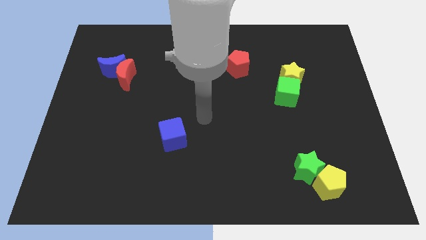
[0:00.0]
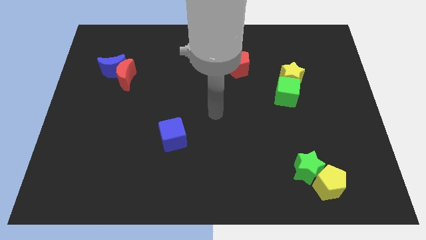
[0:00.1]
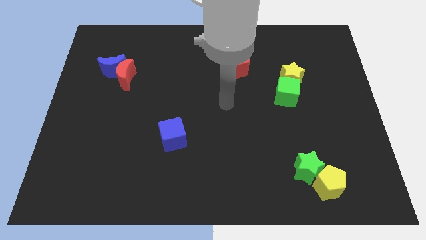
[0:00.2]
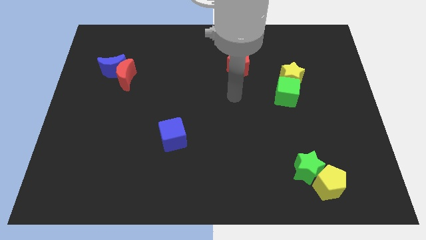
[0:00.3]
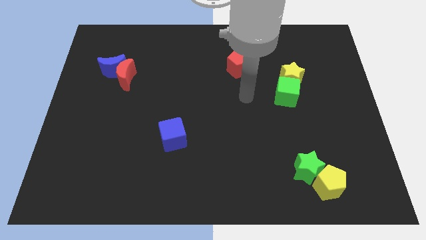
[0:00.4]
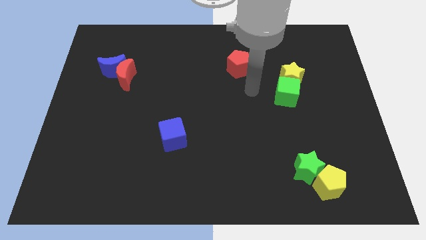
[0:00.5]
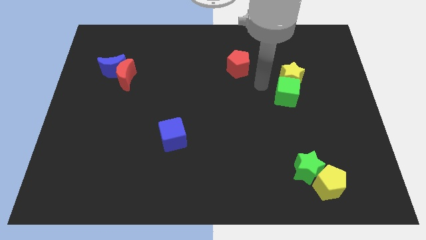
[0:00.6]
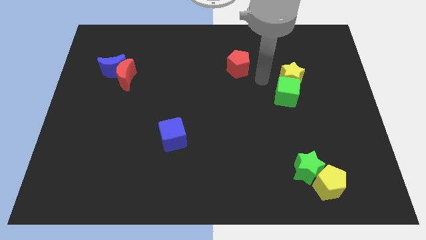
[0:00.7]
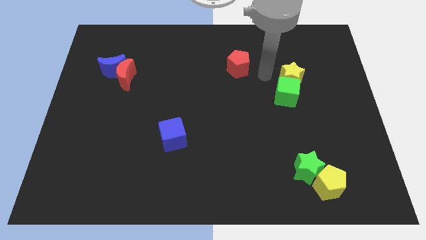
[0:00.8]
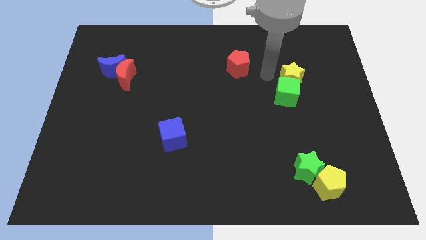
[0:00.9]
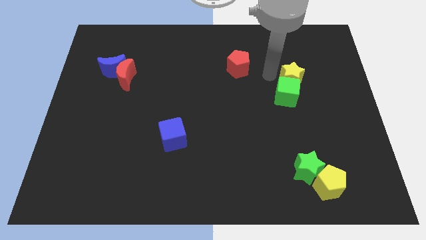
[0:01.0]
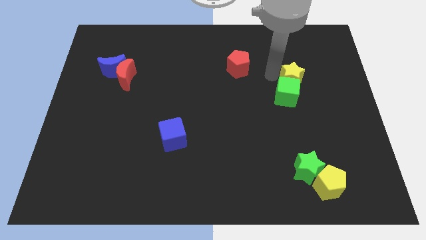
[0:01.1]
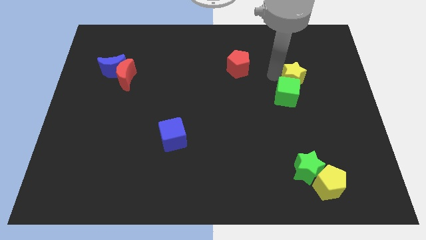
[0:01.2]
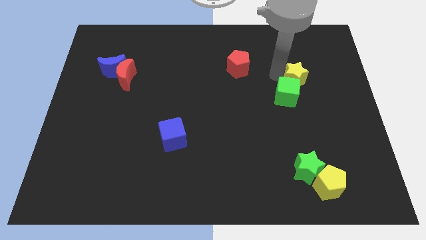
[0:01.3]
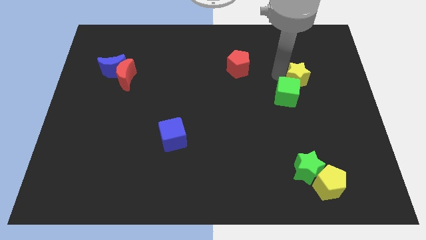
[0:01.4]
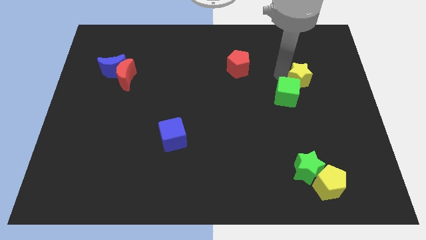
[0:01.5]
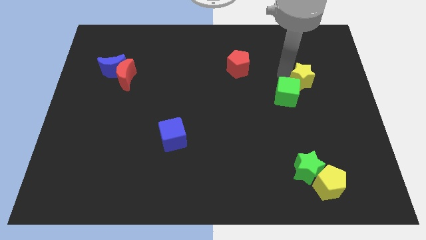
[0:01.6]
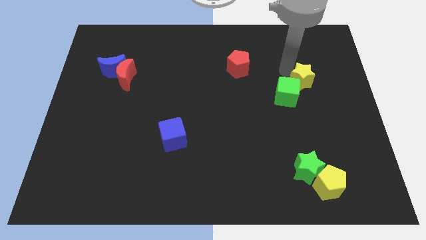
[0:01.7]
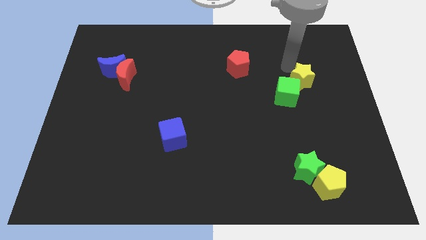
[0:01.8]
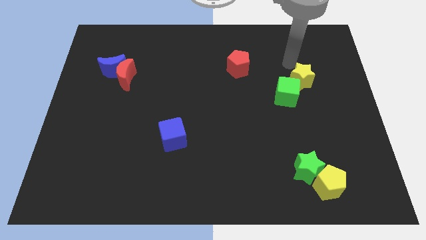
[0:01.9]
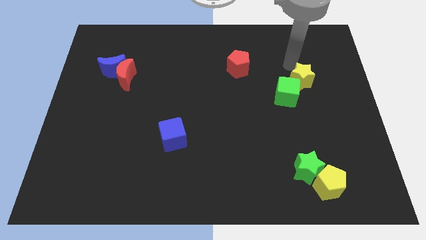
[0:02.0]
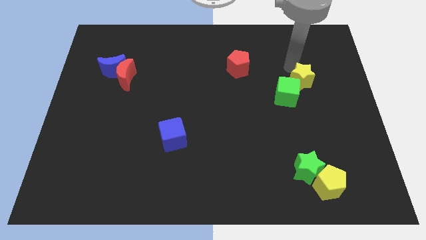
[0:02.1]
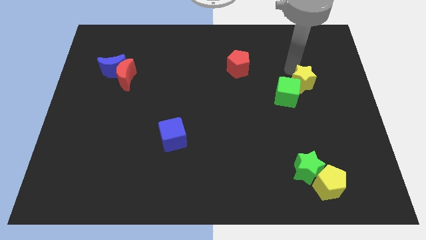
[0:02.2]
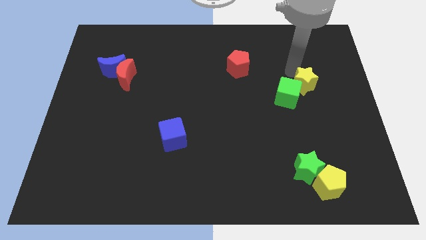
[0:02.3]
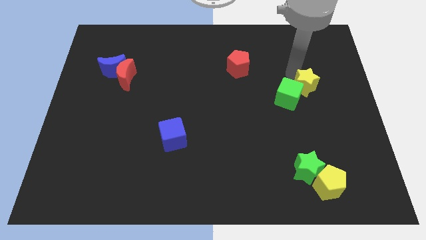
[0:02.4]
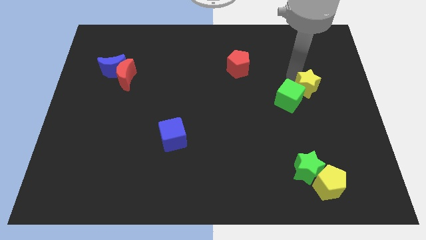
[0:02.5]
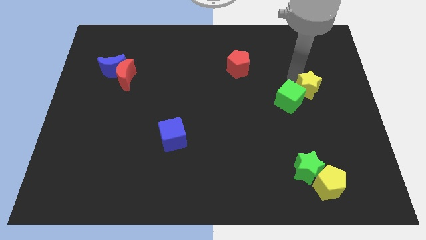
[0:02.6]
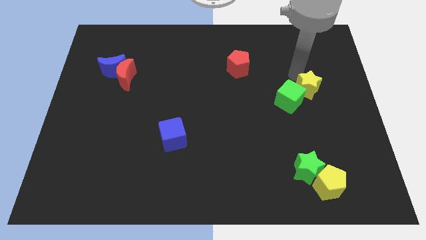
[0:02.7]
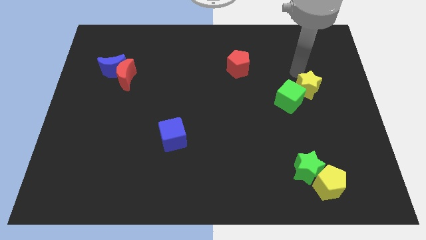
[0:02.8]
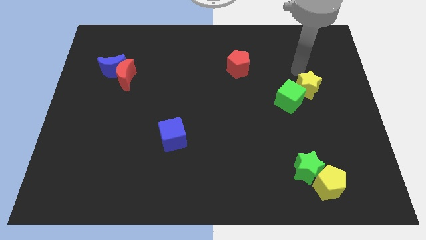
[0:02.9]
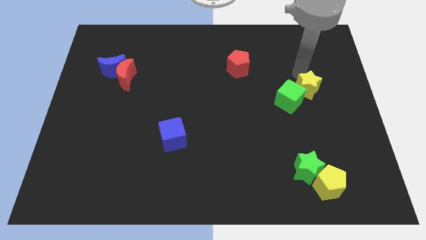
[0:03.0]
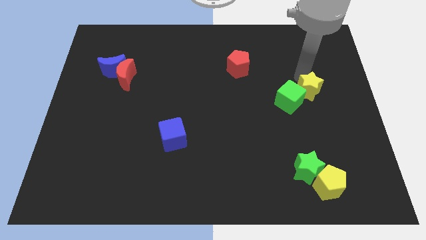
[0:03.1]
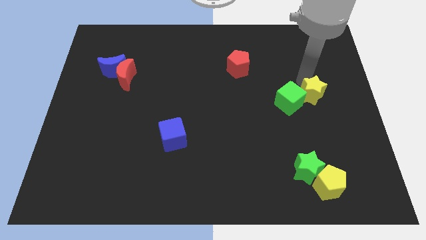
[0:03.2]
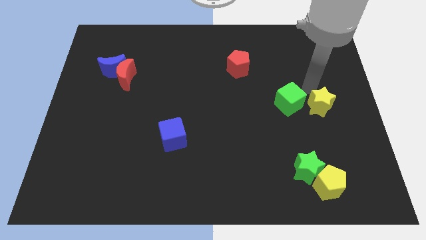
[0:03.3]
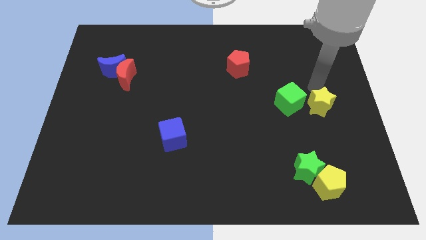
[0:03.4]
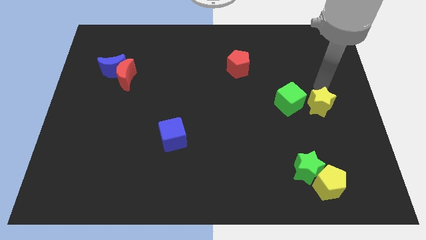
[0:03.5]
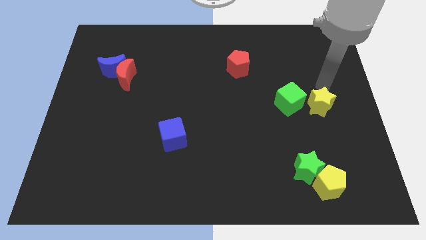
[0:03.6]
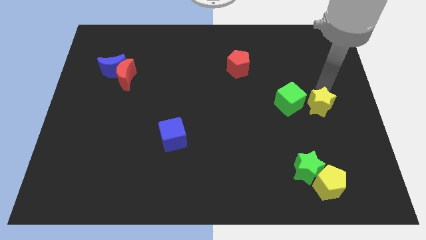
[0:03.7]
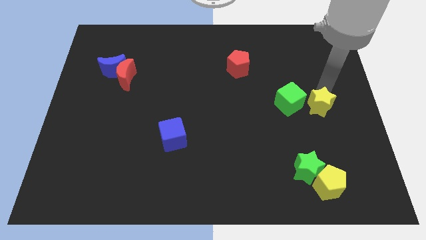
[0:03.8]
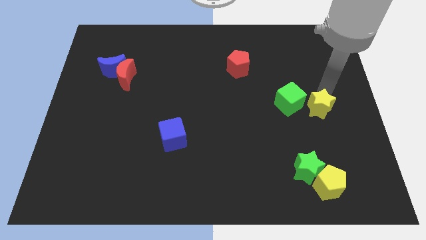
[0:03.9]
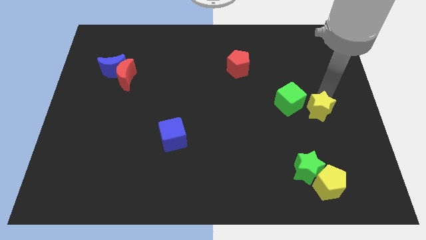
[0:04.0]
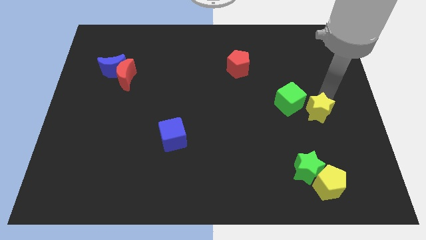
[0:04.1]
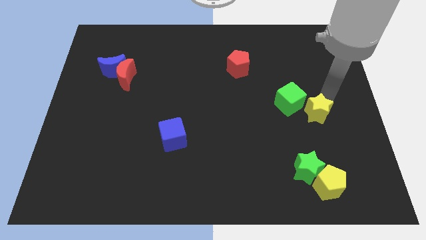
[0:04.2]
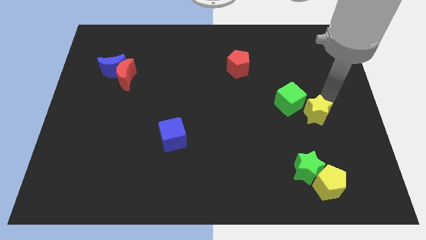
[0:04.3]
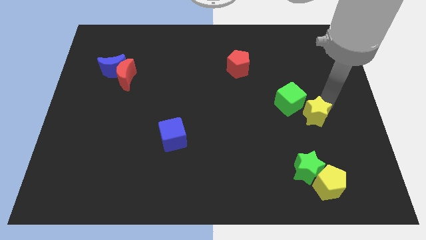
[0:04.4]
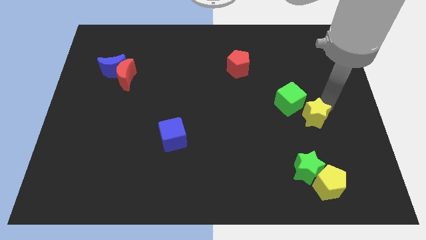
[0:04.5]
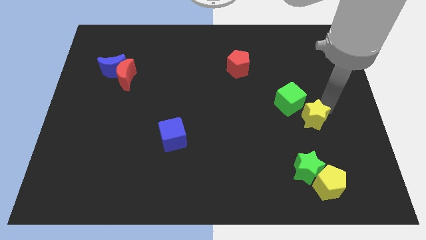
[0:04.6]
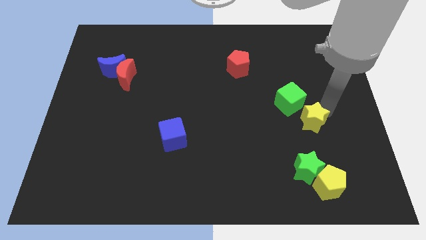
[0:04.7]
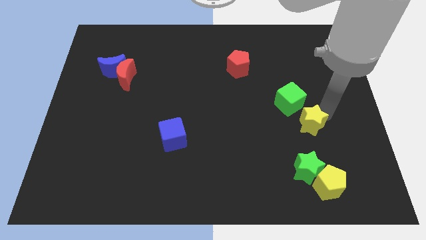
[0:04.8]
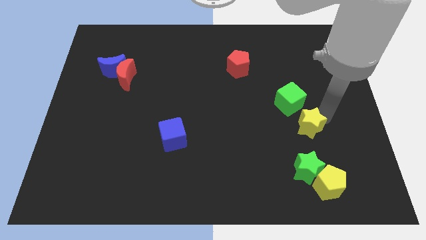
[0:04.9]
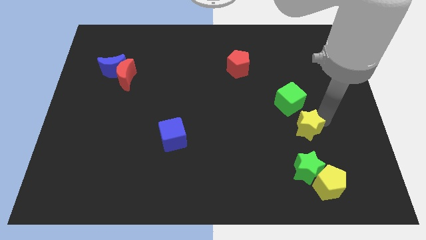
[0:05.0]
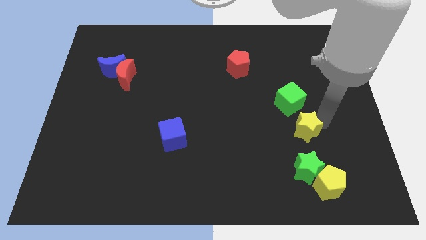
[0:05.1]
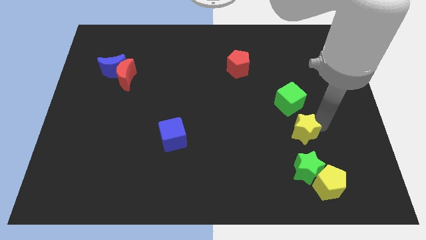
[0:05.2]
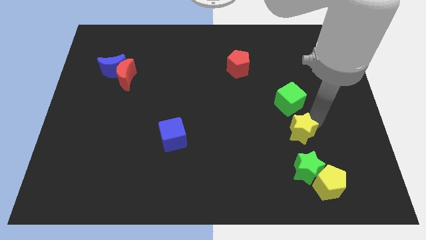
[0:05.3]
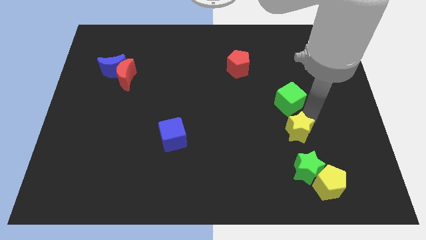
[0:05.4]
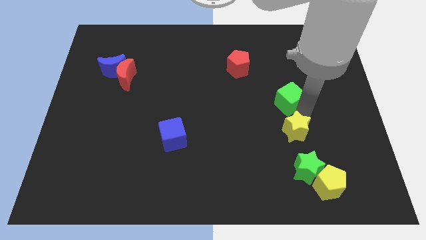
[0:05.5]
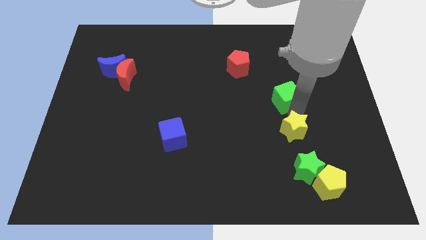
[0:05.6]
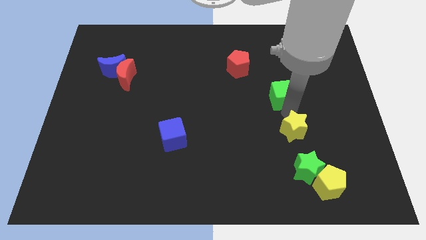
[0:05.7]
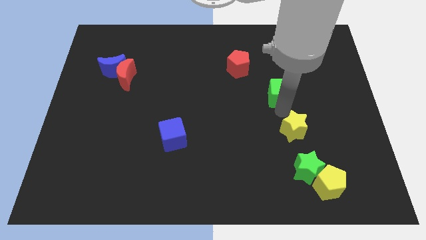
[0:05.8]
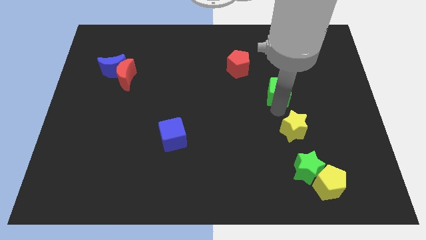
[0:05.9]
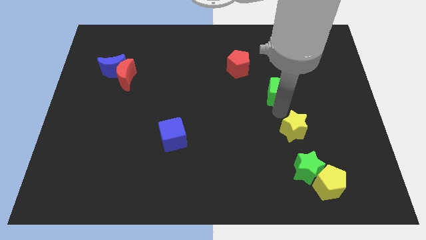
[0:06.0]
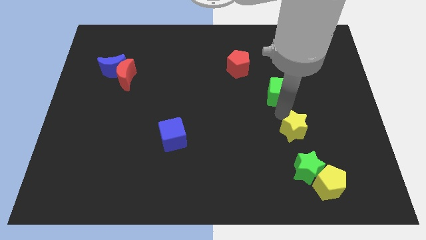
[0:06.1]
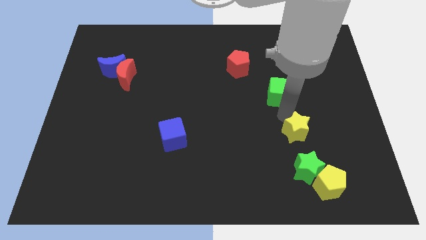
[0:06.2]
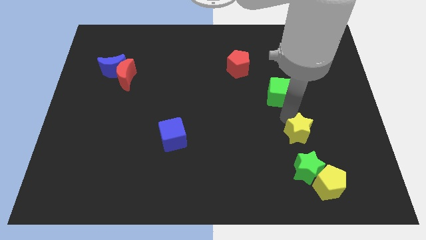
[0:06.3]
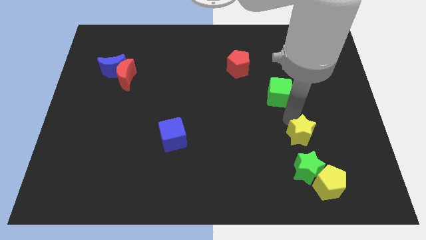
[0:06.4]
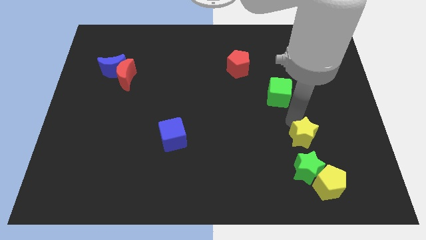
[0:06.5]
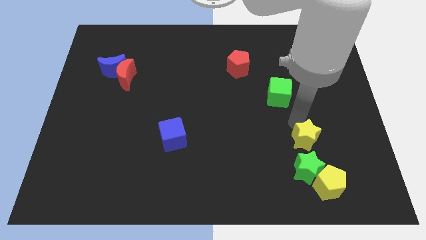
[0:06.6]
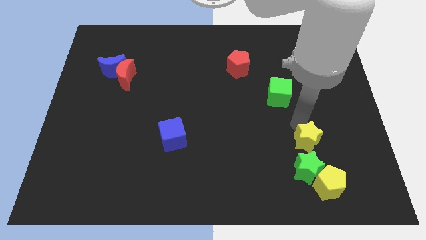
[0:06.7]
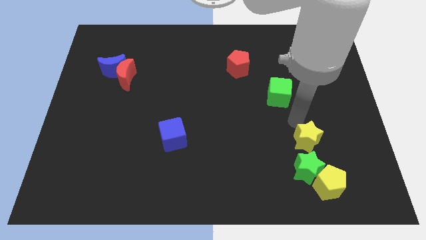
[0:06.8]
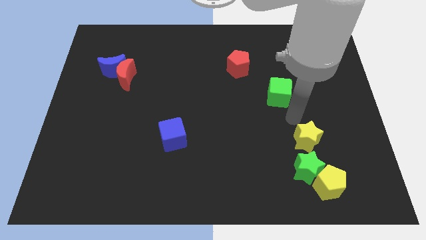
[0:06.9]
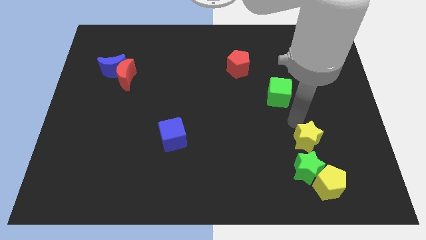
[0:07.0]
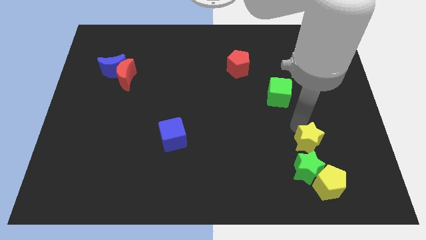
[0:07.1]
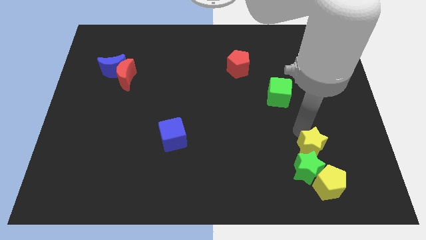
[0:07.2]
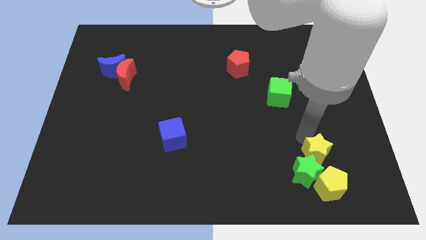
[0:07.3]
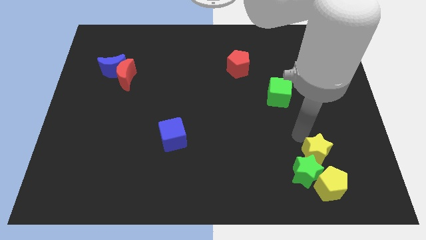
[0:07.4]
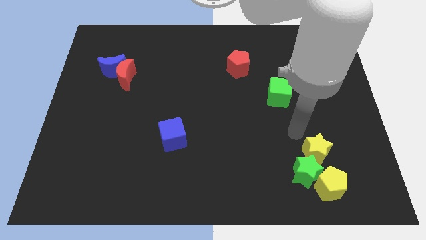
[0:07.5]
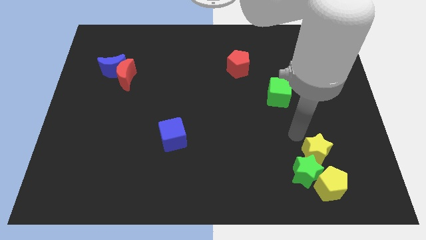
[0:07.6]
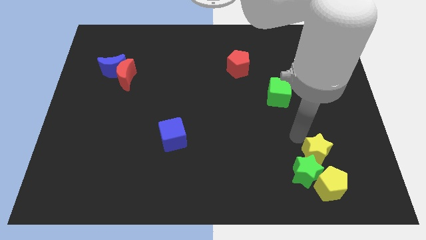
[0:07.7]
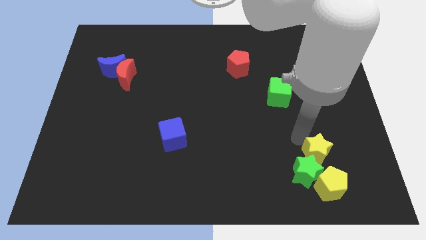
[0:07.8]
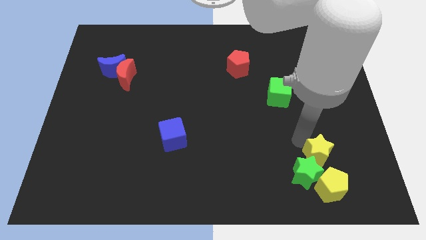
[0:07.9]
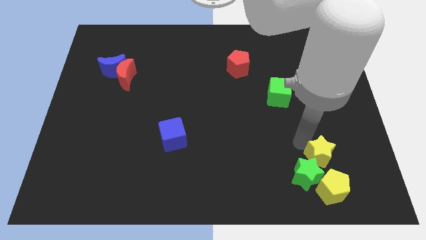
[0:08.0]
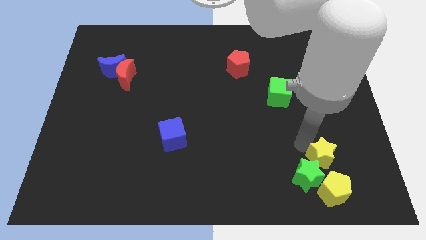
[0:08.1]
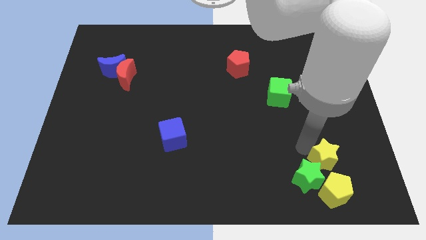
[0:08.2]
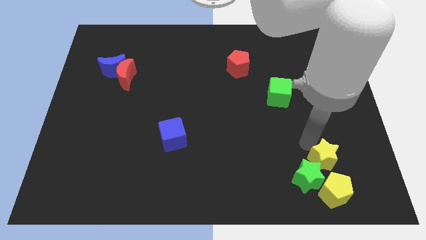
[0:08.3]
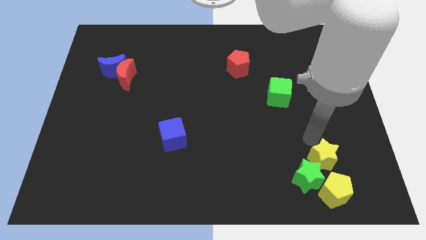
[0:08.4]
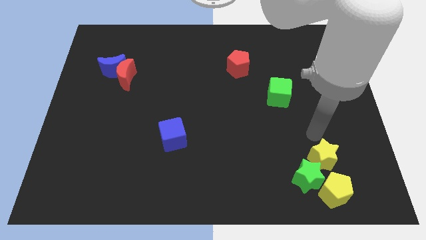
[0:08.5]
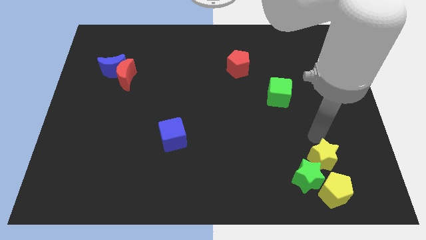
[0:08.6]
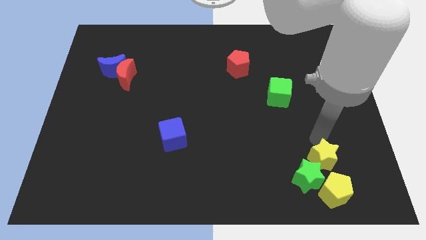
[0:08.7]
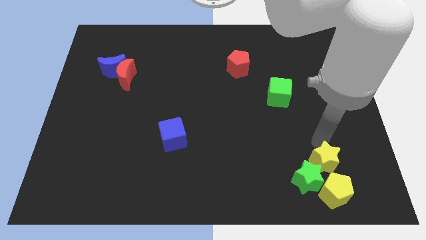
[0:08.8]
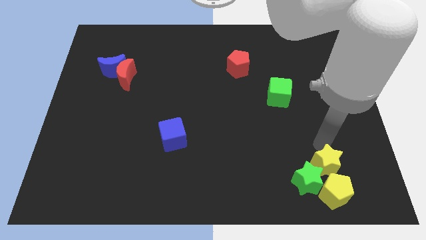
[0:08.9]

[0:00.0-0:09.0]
push the yellow star close to the yellow pentagon
